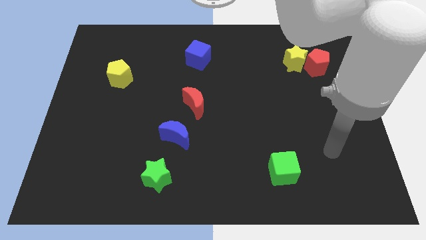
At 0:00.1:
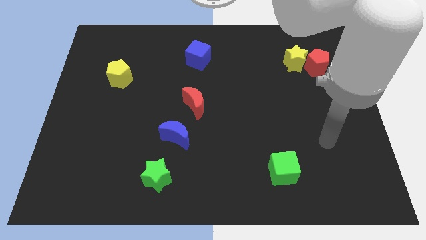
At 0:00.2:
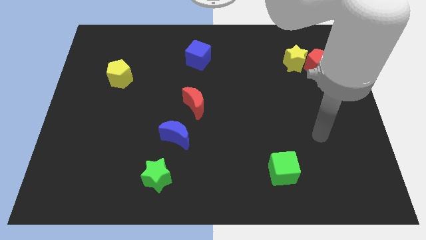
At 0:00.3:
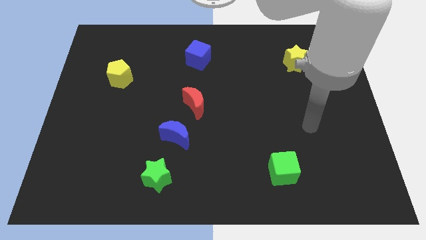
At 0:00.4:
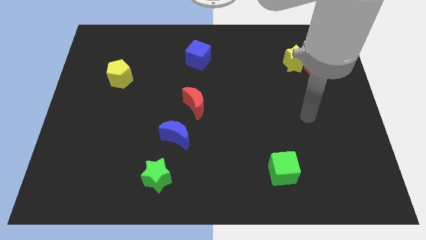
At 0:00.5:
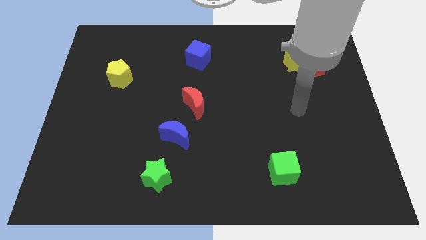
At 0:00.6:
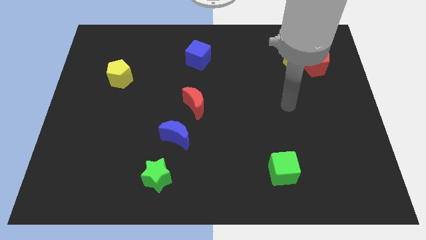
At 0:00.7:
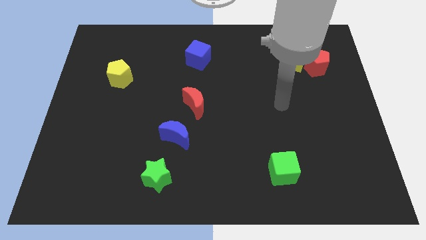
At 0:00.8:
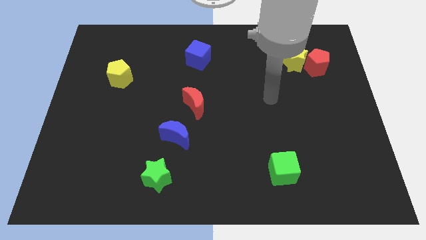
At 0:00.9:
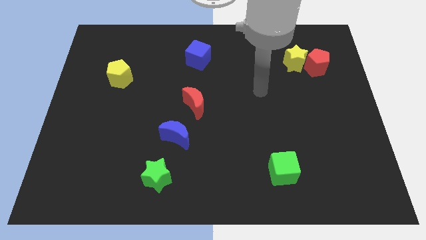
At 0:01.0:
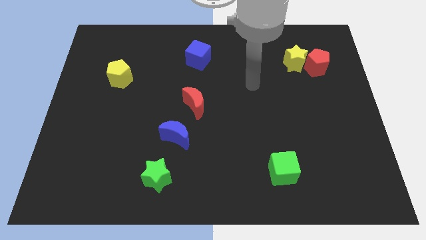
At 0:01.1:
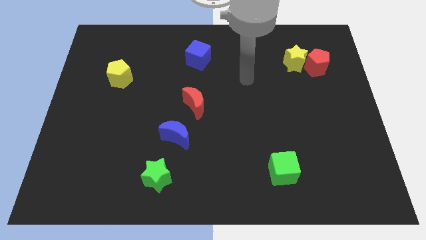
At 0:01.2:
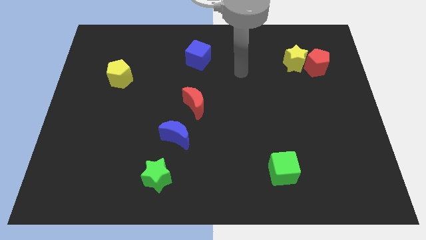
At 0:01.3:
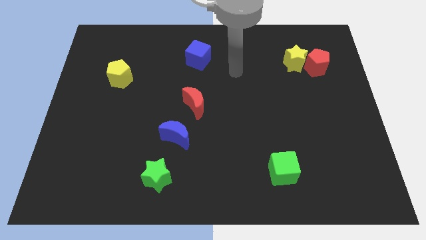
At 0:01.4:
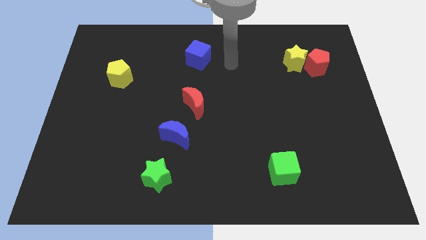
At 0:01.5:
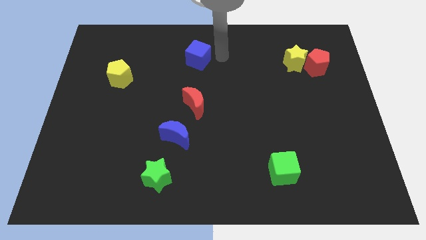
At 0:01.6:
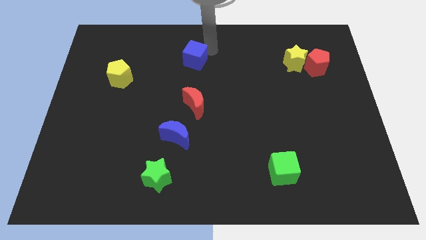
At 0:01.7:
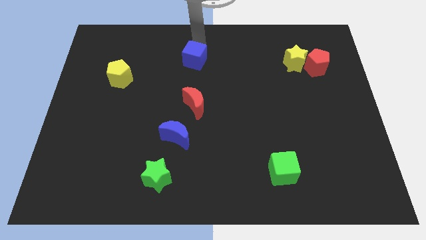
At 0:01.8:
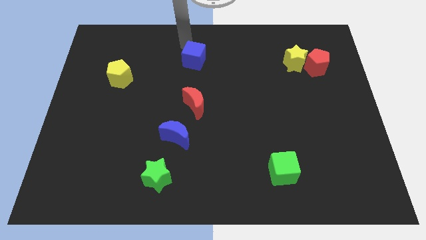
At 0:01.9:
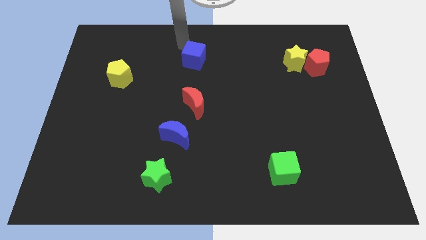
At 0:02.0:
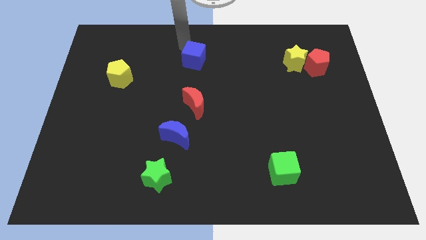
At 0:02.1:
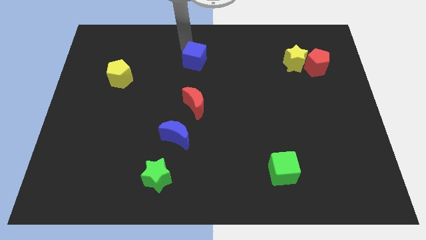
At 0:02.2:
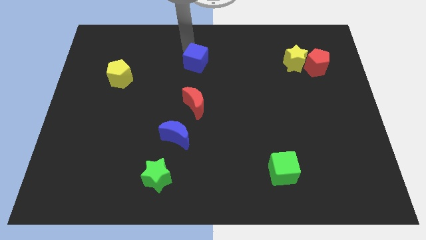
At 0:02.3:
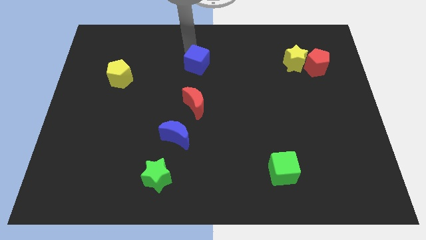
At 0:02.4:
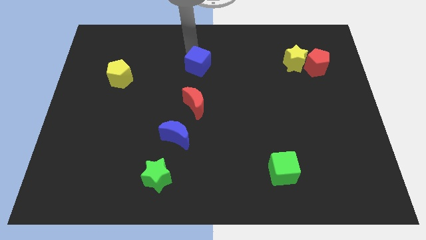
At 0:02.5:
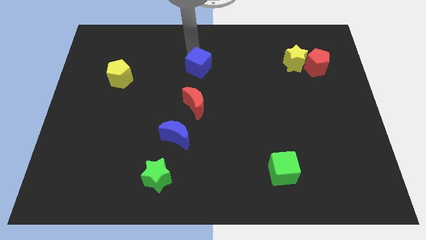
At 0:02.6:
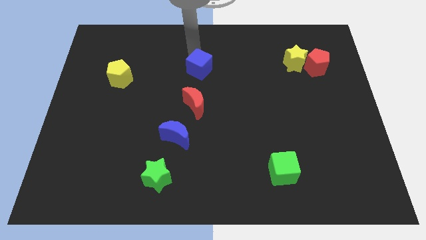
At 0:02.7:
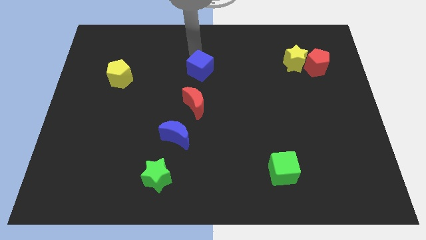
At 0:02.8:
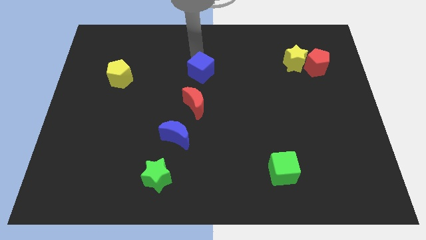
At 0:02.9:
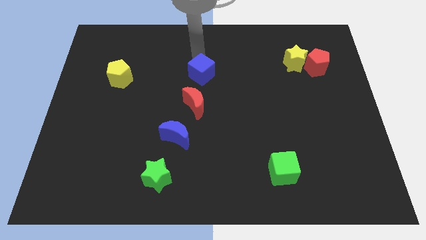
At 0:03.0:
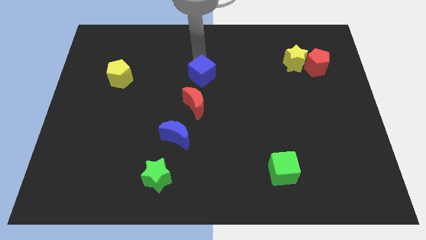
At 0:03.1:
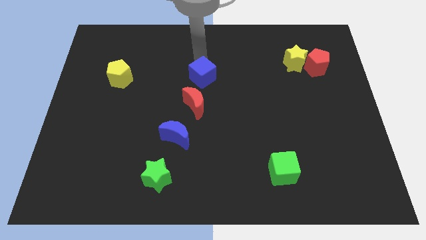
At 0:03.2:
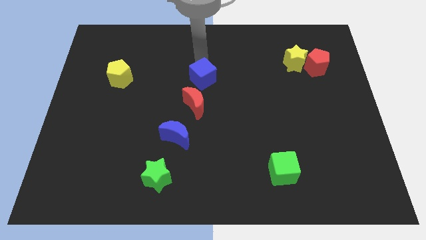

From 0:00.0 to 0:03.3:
slide the blue cube somewhat downwards

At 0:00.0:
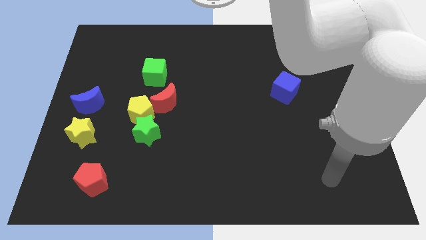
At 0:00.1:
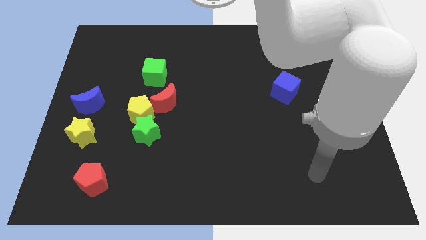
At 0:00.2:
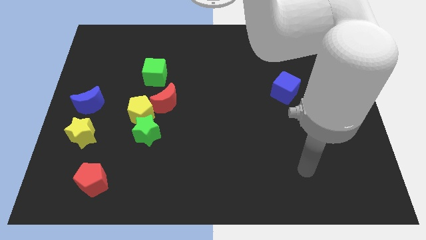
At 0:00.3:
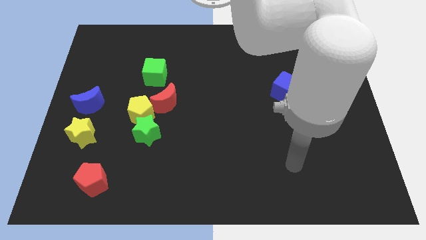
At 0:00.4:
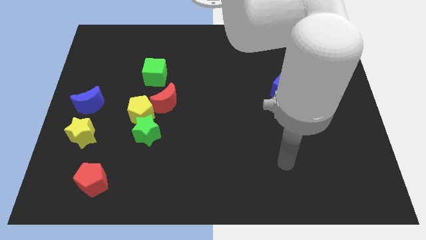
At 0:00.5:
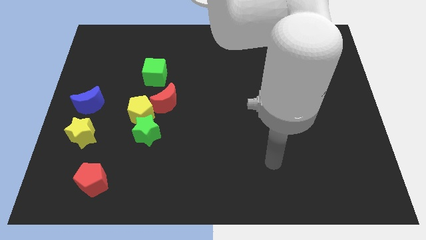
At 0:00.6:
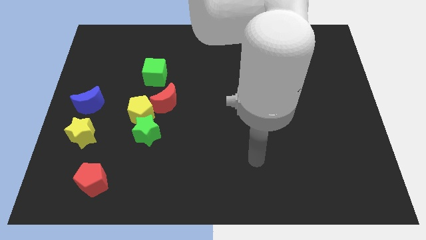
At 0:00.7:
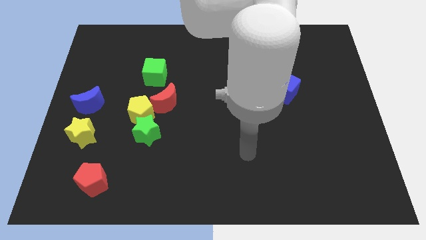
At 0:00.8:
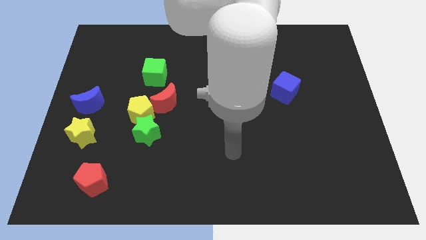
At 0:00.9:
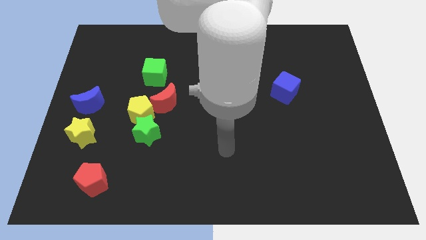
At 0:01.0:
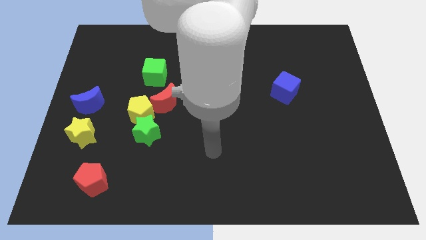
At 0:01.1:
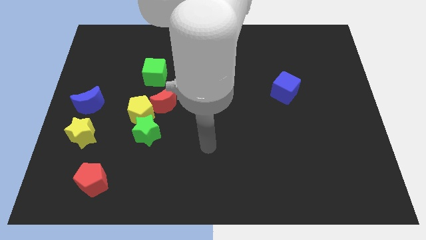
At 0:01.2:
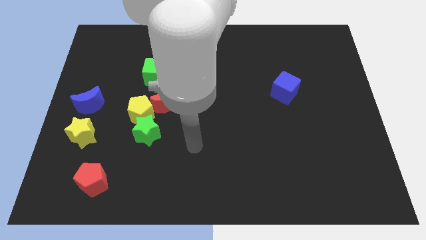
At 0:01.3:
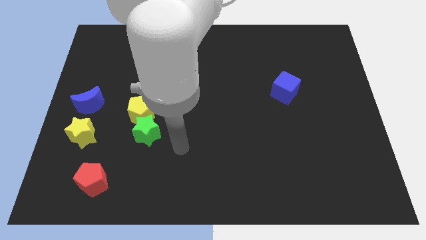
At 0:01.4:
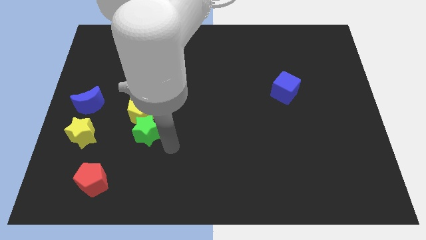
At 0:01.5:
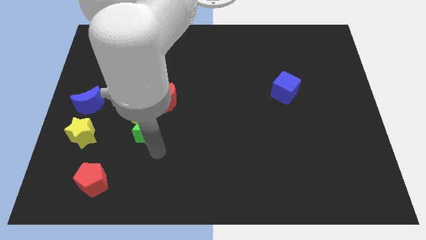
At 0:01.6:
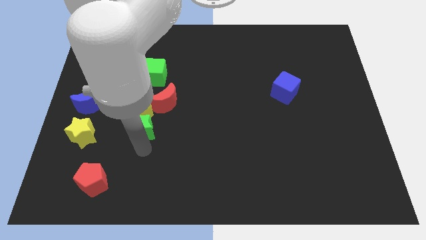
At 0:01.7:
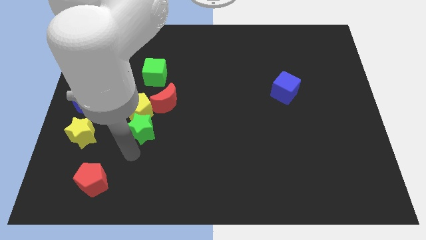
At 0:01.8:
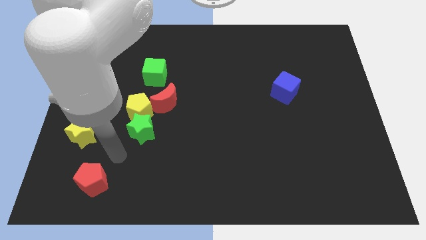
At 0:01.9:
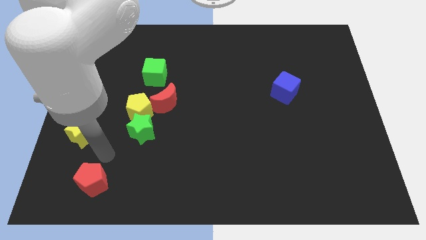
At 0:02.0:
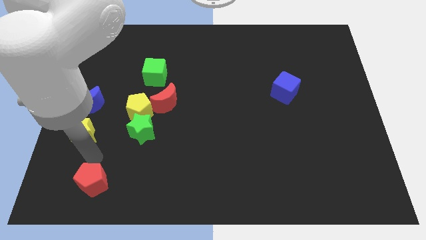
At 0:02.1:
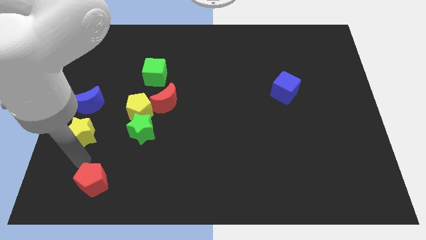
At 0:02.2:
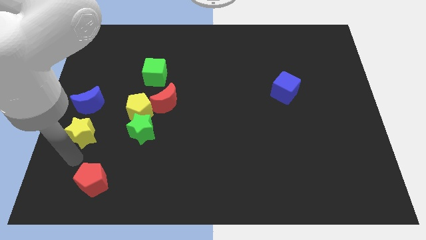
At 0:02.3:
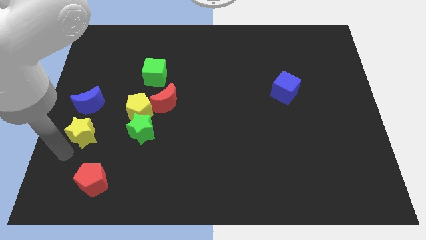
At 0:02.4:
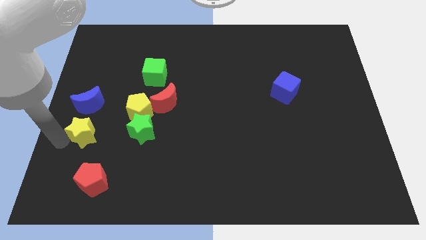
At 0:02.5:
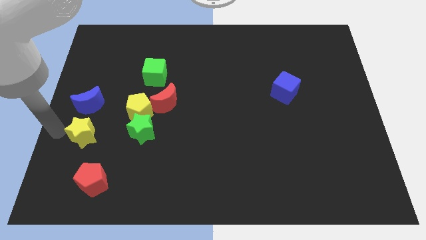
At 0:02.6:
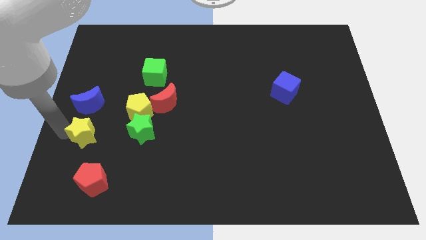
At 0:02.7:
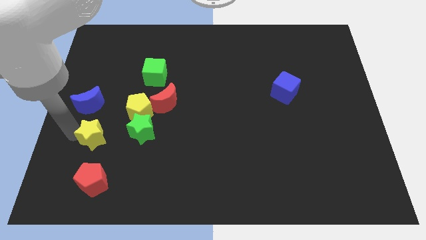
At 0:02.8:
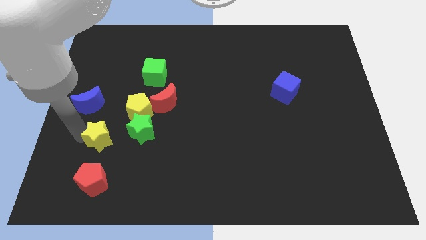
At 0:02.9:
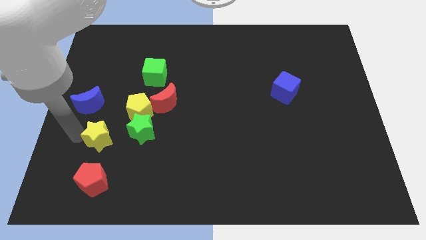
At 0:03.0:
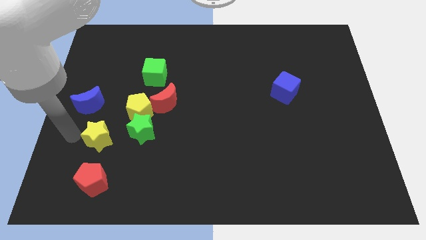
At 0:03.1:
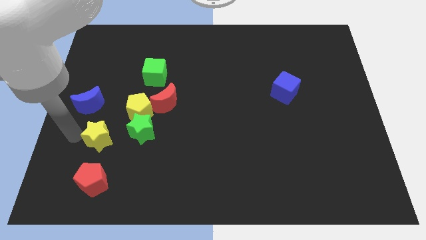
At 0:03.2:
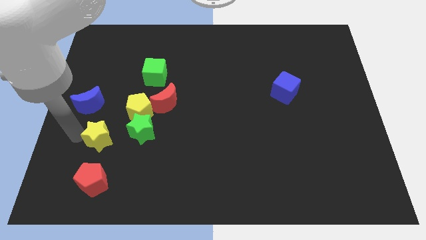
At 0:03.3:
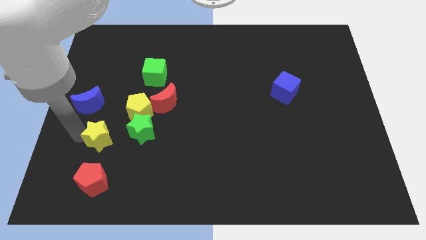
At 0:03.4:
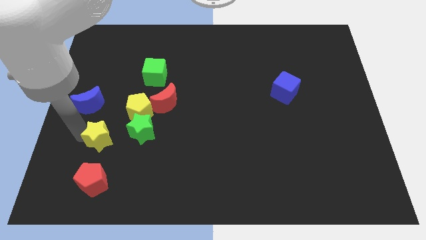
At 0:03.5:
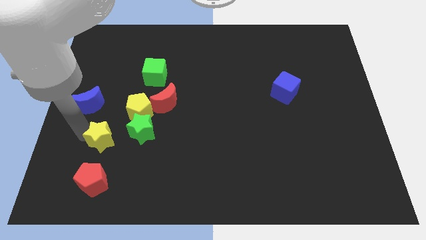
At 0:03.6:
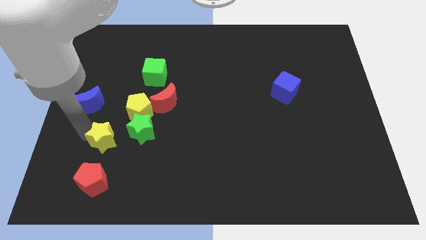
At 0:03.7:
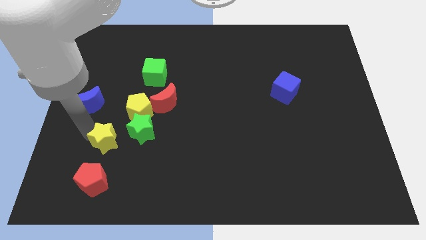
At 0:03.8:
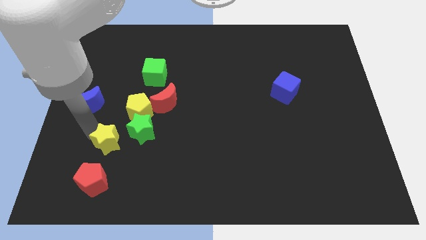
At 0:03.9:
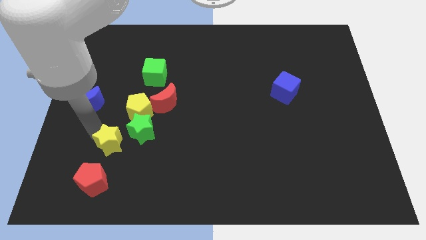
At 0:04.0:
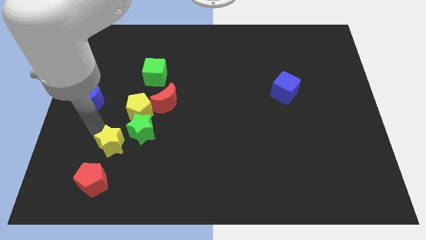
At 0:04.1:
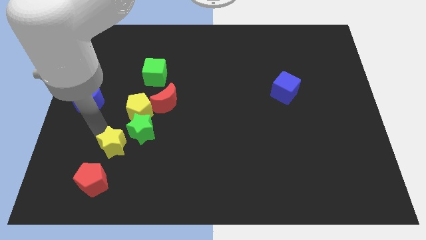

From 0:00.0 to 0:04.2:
slide the yellow star somewhat to the right

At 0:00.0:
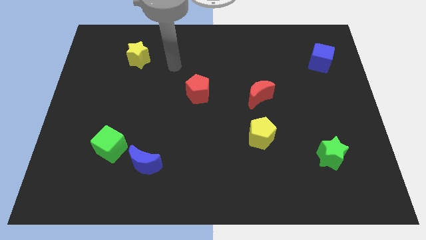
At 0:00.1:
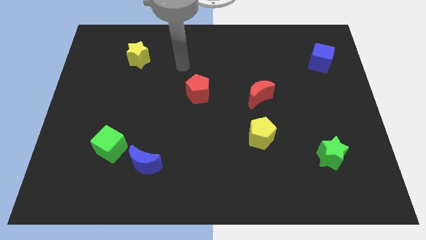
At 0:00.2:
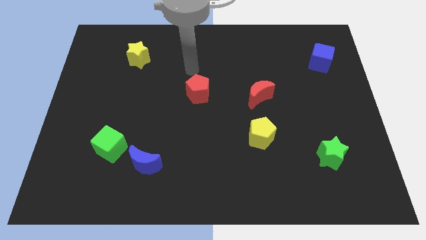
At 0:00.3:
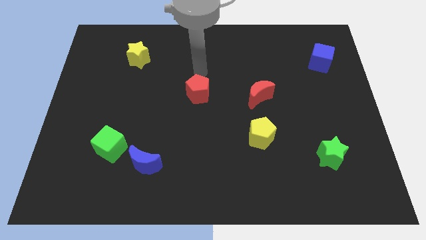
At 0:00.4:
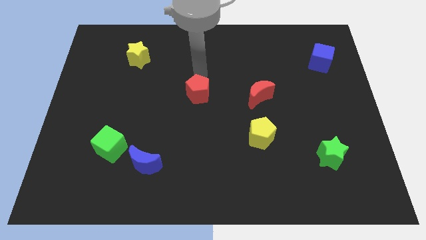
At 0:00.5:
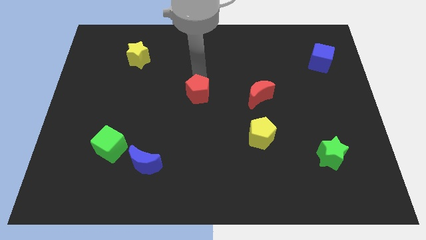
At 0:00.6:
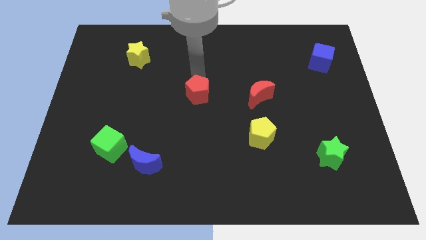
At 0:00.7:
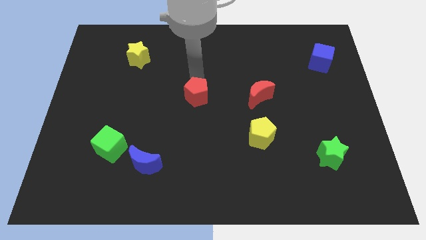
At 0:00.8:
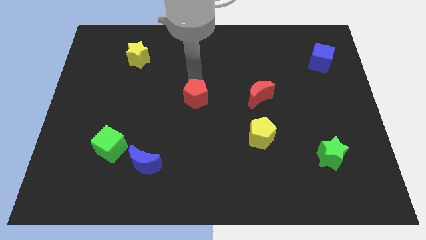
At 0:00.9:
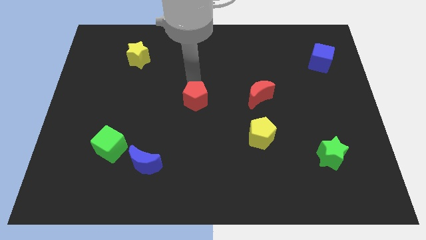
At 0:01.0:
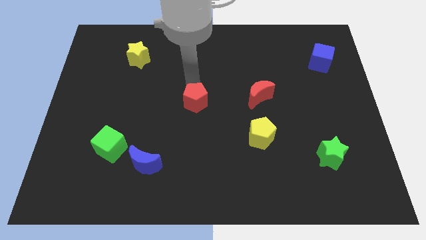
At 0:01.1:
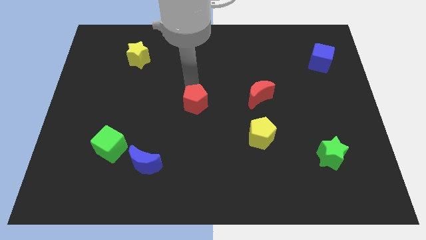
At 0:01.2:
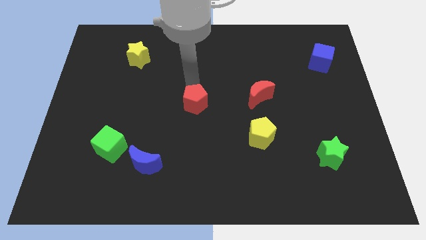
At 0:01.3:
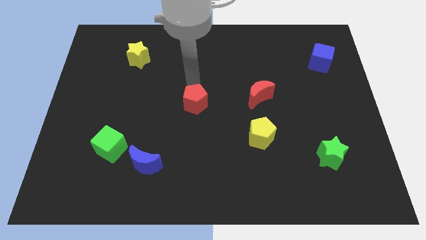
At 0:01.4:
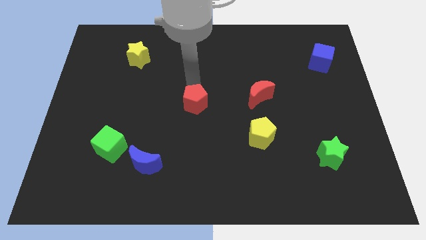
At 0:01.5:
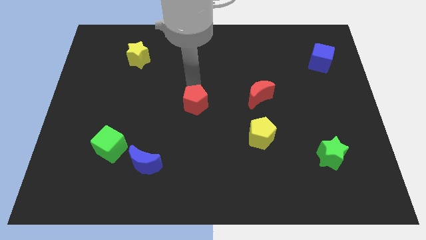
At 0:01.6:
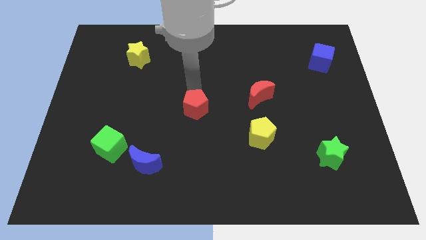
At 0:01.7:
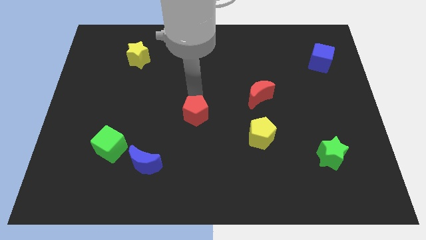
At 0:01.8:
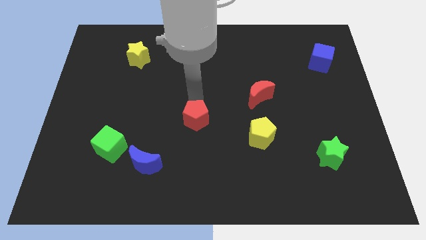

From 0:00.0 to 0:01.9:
slightly slide the red pentagon downwards
